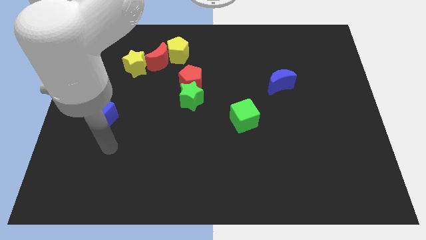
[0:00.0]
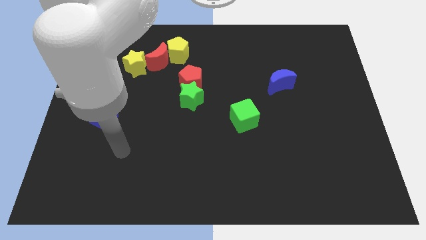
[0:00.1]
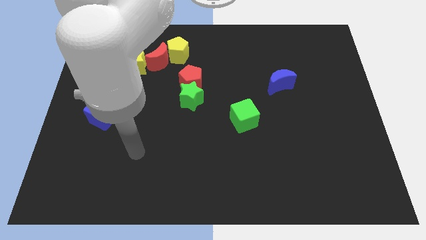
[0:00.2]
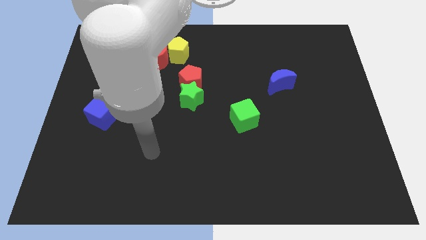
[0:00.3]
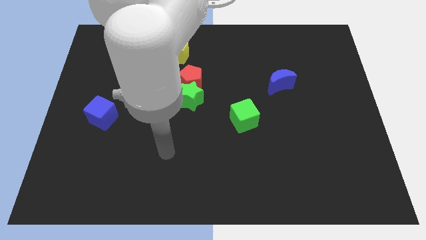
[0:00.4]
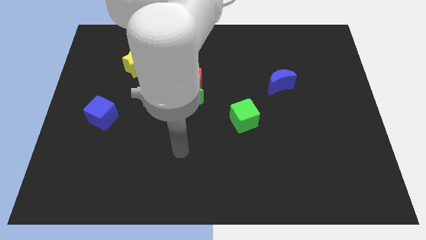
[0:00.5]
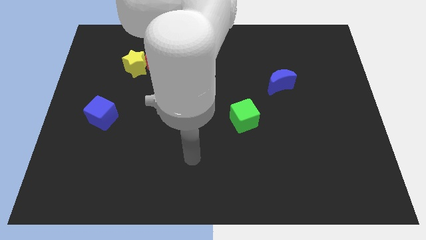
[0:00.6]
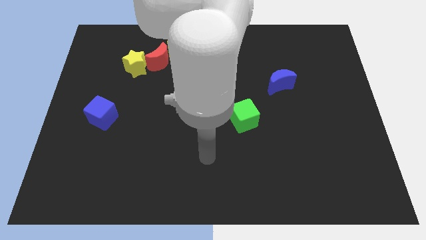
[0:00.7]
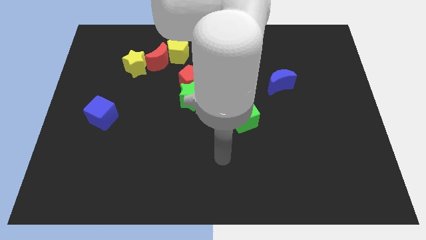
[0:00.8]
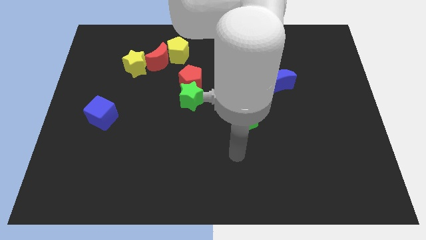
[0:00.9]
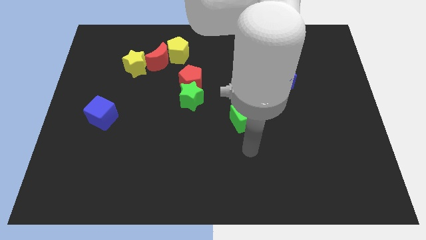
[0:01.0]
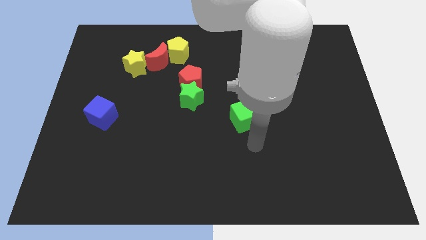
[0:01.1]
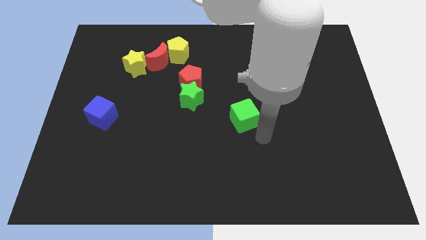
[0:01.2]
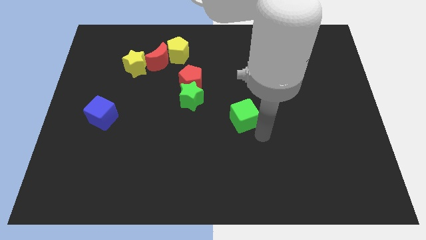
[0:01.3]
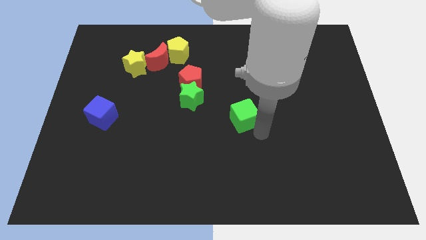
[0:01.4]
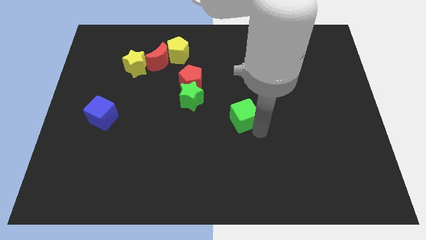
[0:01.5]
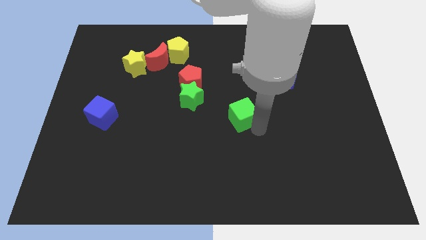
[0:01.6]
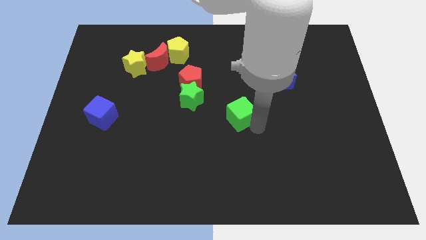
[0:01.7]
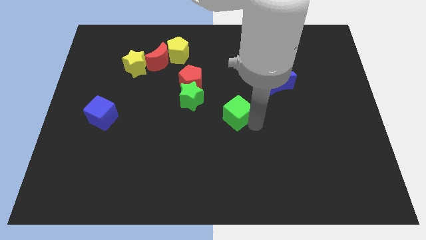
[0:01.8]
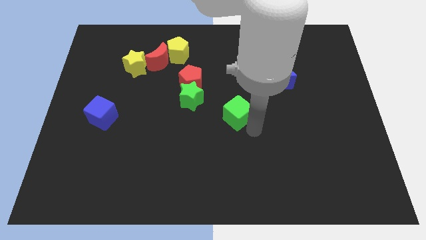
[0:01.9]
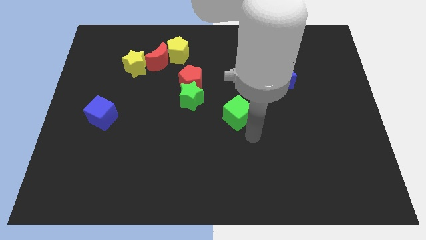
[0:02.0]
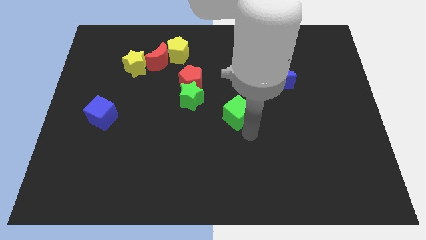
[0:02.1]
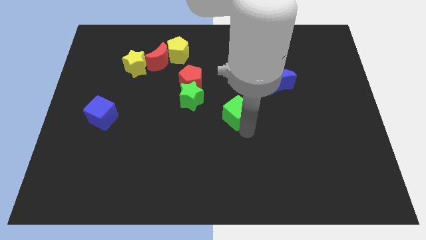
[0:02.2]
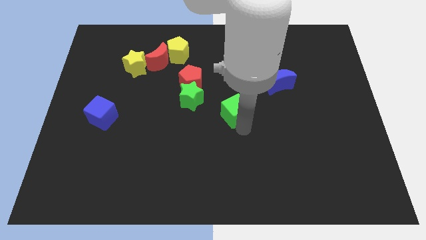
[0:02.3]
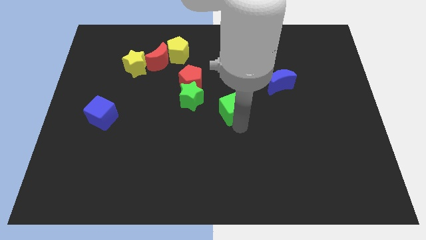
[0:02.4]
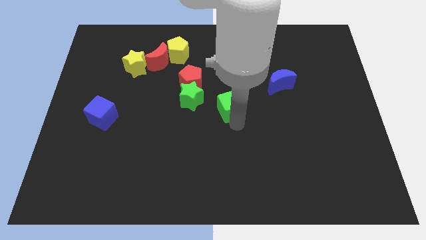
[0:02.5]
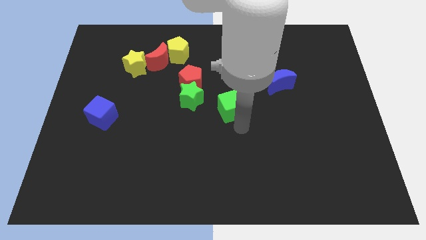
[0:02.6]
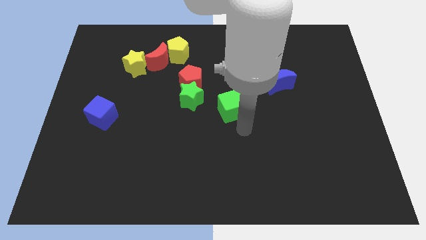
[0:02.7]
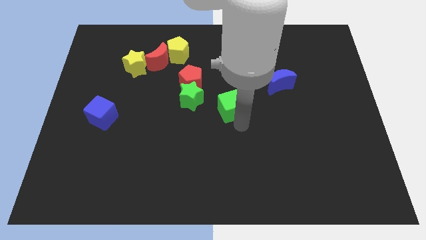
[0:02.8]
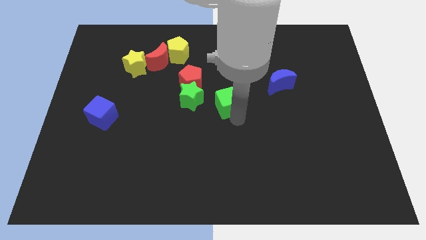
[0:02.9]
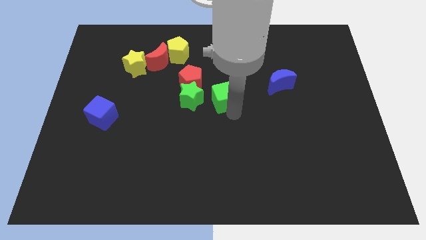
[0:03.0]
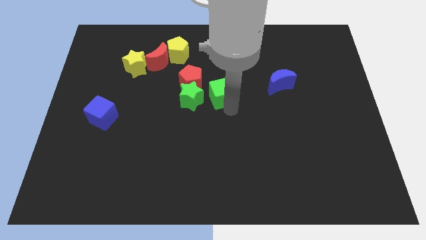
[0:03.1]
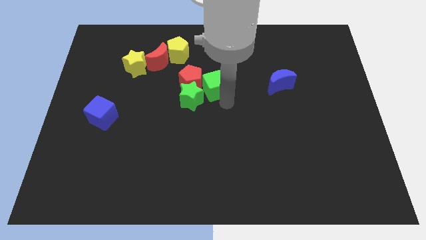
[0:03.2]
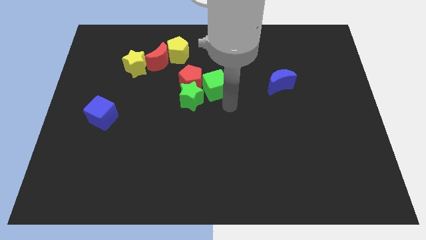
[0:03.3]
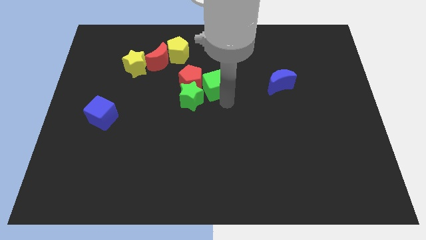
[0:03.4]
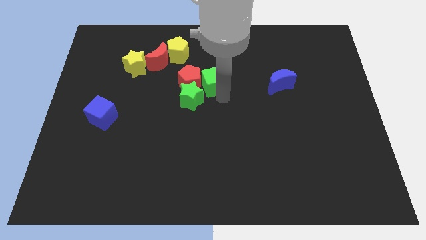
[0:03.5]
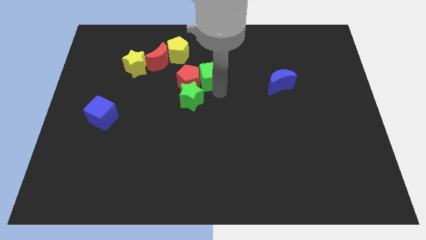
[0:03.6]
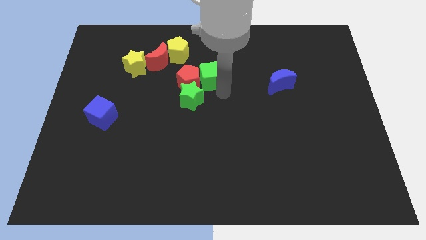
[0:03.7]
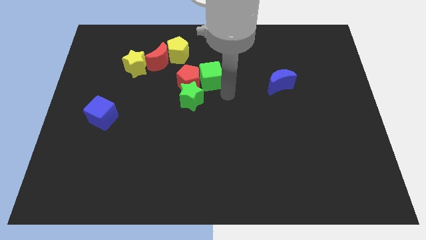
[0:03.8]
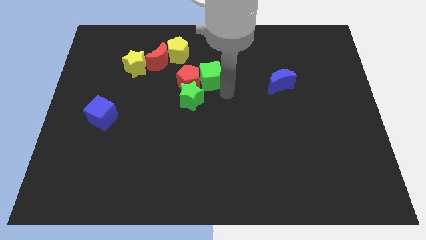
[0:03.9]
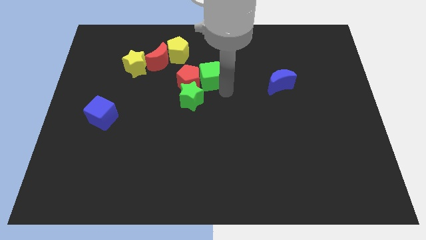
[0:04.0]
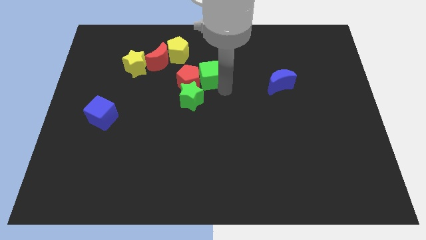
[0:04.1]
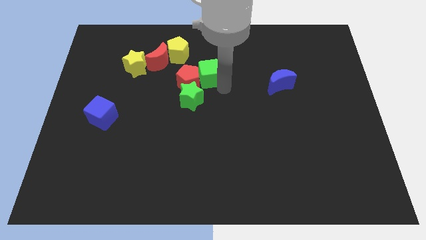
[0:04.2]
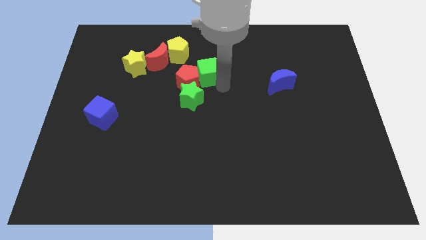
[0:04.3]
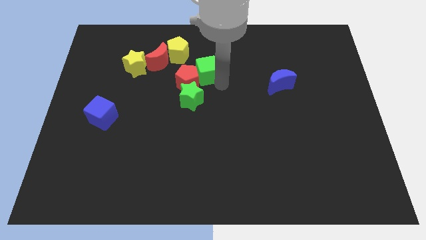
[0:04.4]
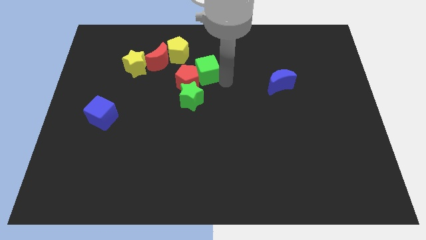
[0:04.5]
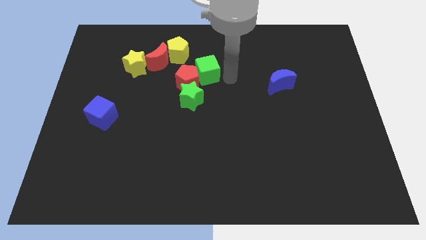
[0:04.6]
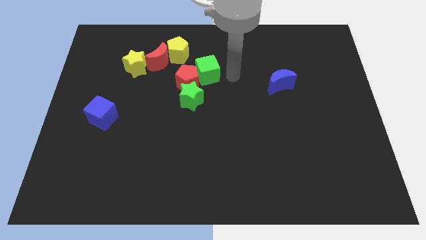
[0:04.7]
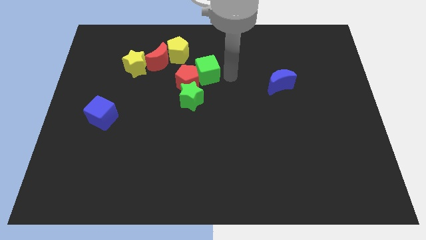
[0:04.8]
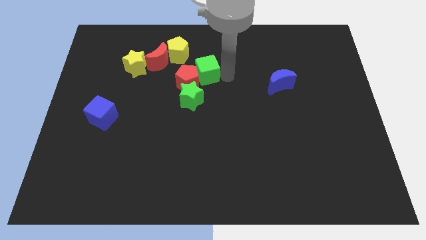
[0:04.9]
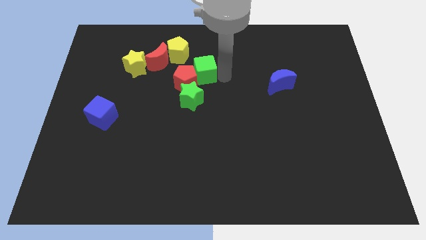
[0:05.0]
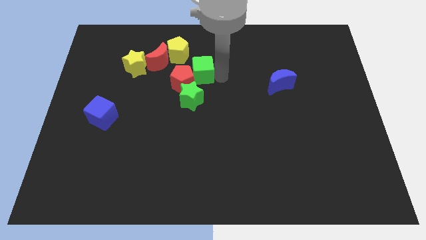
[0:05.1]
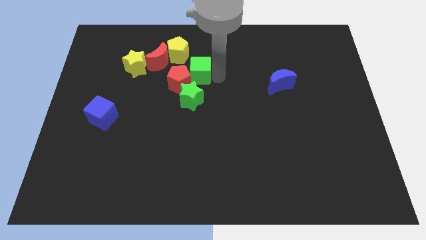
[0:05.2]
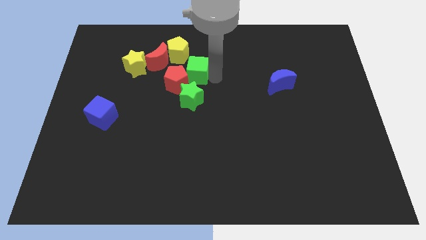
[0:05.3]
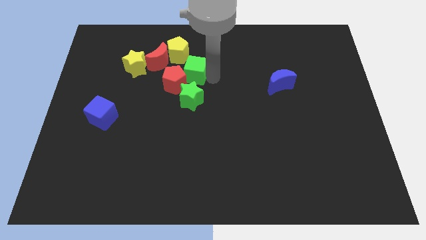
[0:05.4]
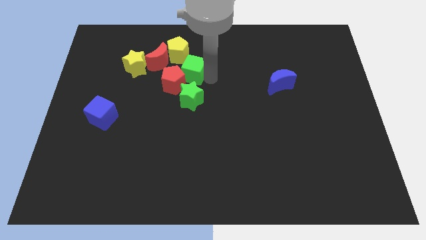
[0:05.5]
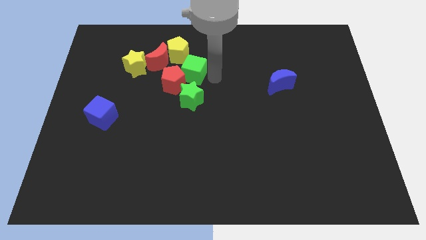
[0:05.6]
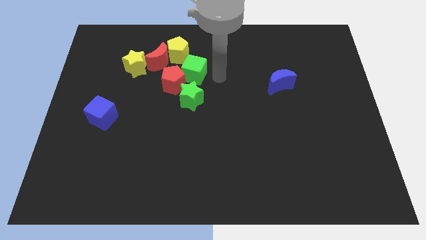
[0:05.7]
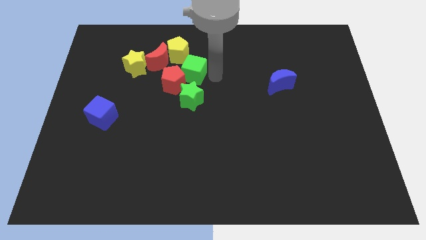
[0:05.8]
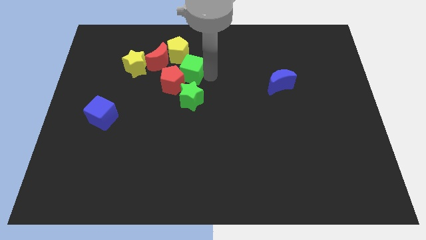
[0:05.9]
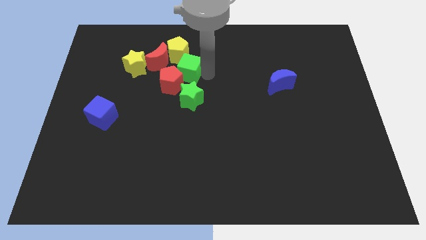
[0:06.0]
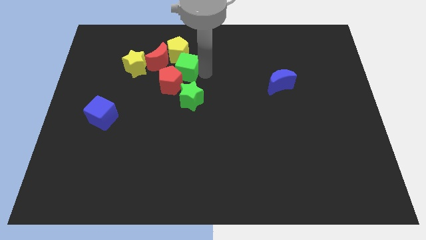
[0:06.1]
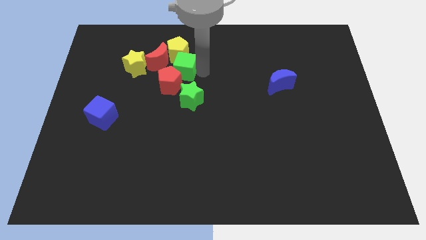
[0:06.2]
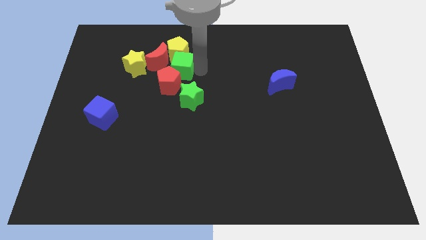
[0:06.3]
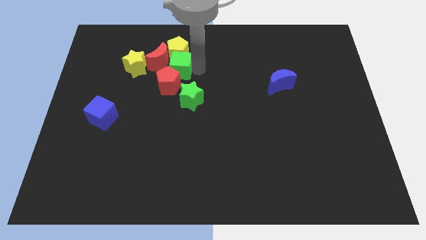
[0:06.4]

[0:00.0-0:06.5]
move the green cube to the red moon

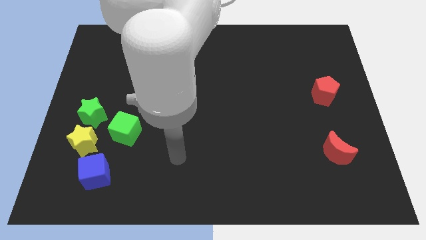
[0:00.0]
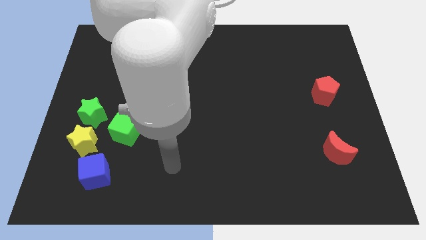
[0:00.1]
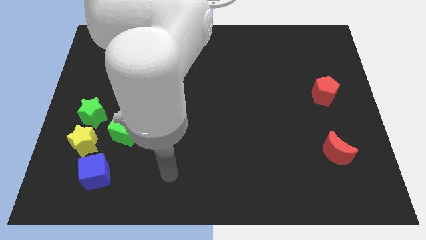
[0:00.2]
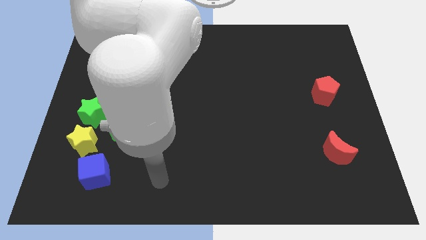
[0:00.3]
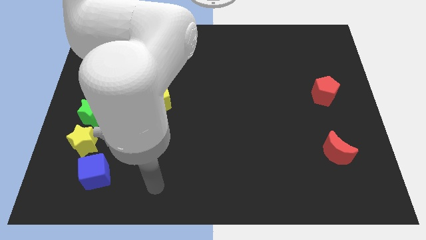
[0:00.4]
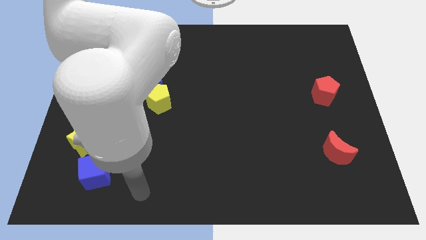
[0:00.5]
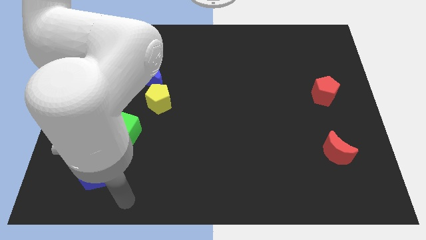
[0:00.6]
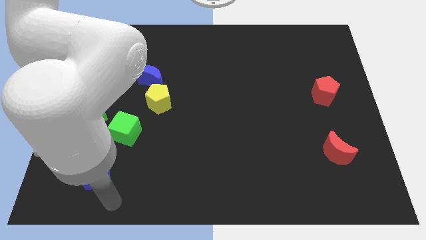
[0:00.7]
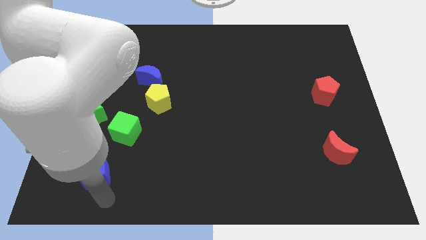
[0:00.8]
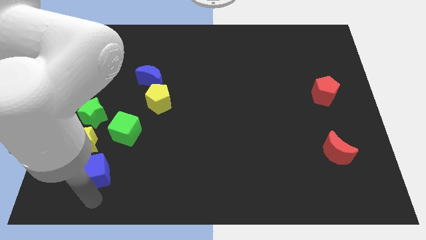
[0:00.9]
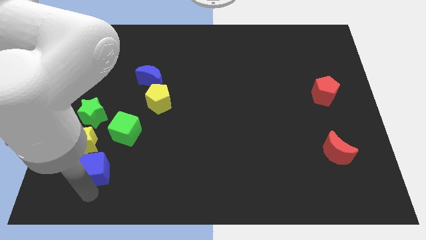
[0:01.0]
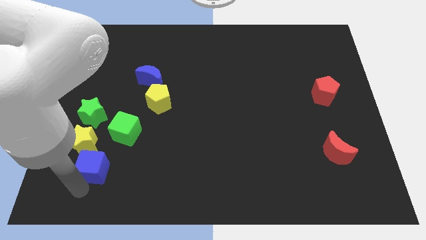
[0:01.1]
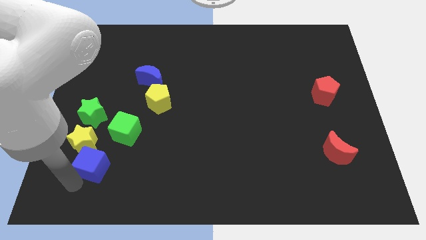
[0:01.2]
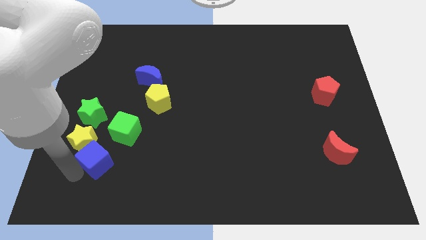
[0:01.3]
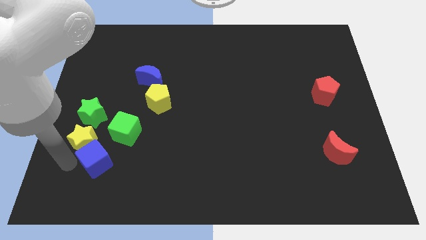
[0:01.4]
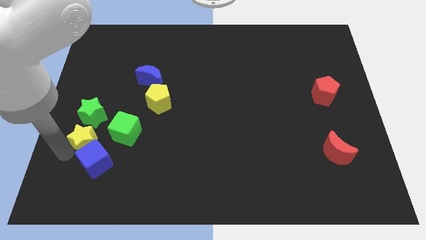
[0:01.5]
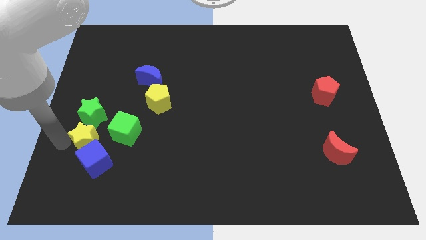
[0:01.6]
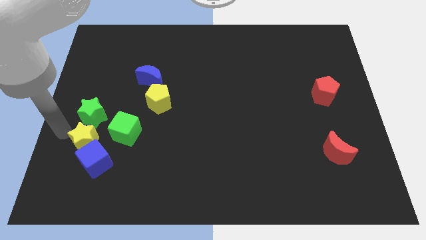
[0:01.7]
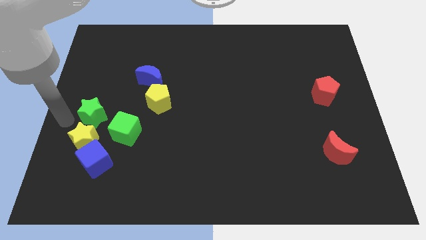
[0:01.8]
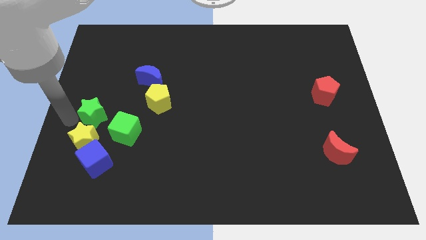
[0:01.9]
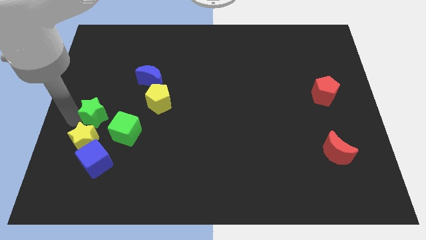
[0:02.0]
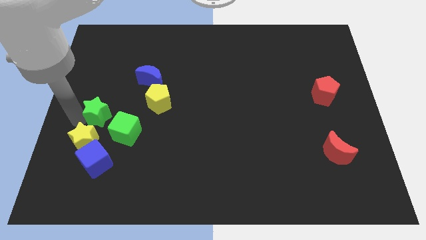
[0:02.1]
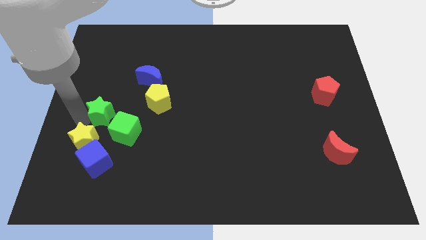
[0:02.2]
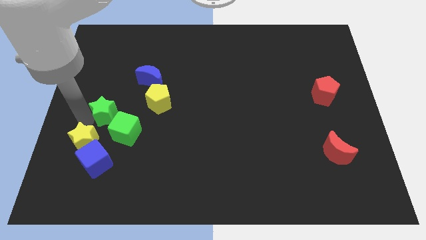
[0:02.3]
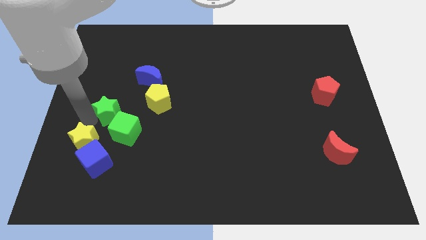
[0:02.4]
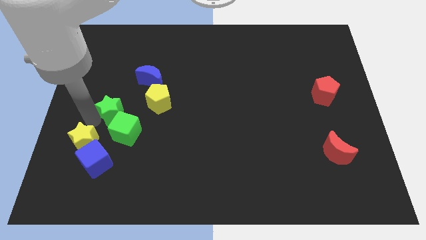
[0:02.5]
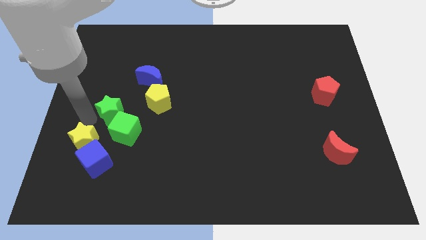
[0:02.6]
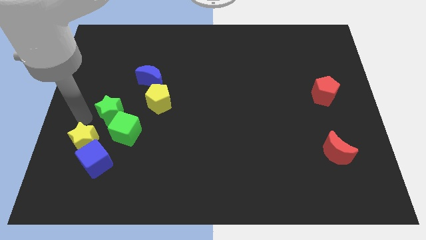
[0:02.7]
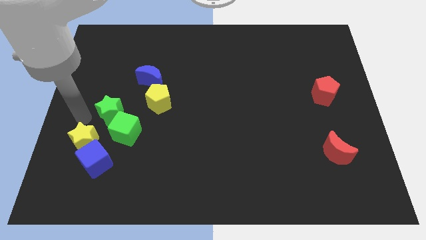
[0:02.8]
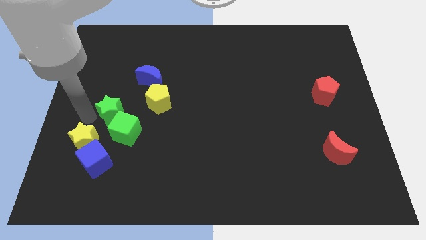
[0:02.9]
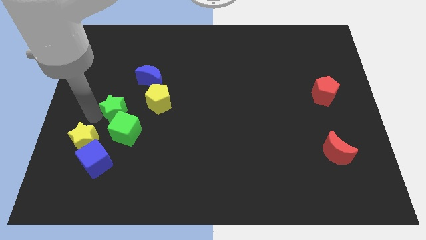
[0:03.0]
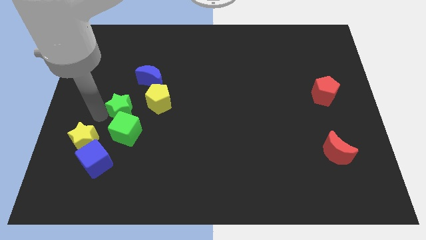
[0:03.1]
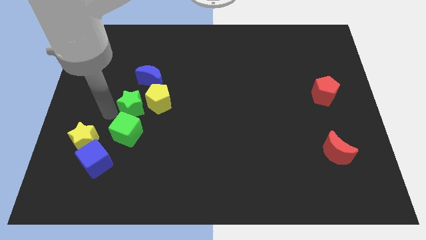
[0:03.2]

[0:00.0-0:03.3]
slide the green star close to the yellow pentagon
